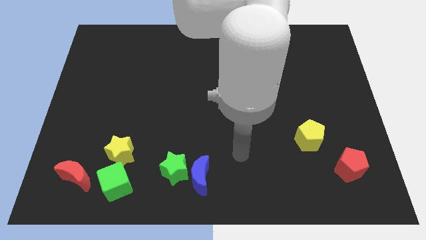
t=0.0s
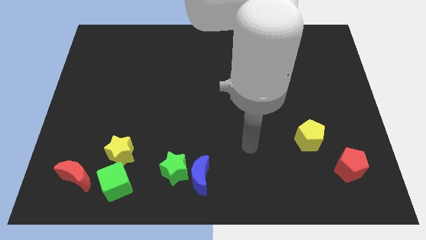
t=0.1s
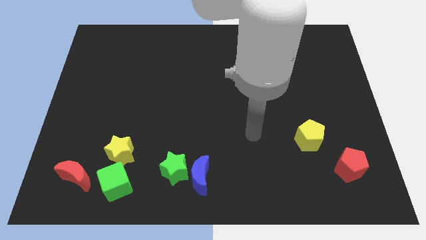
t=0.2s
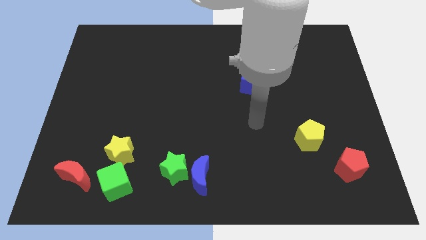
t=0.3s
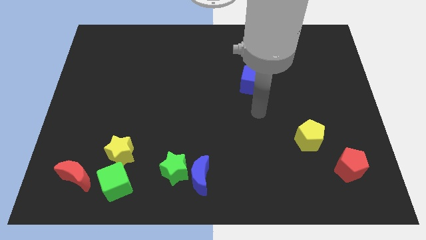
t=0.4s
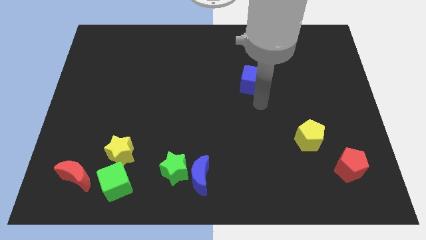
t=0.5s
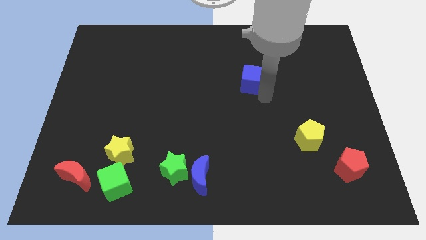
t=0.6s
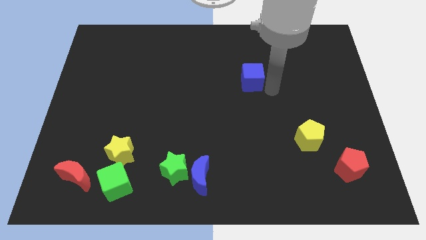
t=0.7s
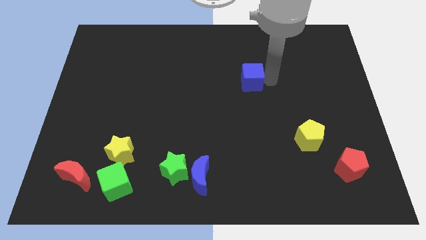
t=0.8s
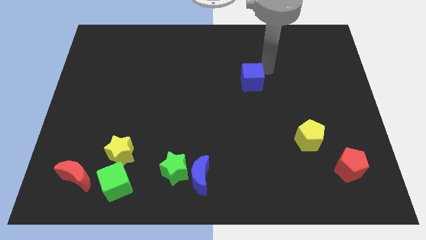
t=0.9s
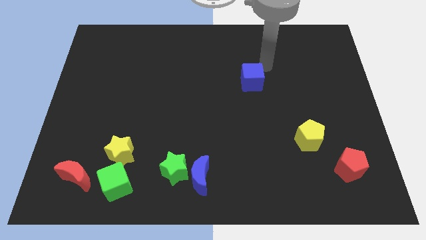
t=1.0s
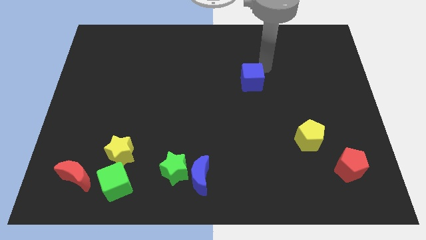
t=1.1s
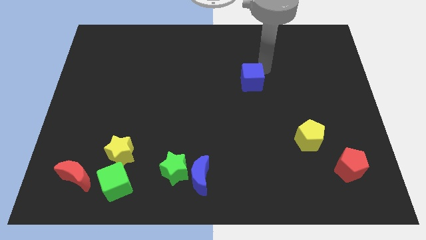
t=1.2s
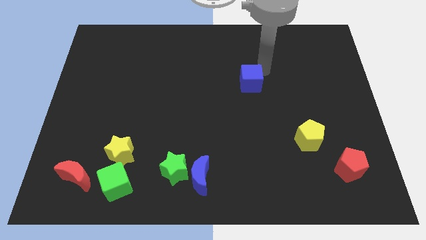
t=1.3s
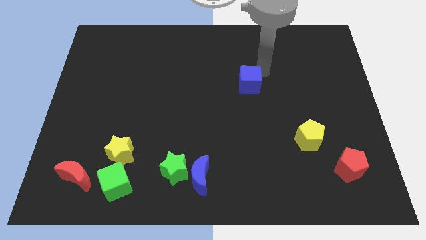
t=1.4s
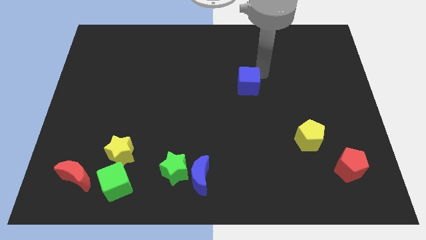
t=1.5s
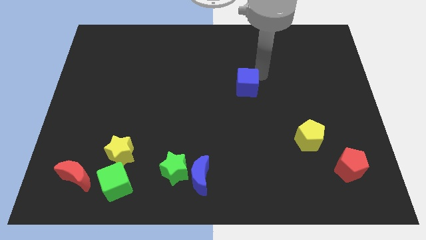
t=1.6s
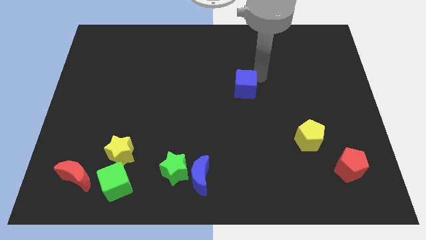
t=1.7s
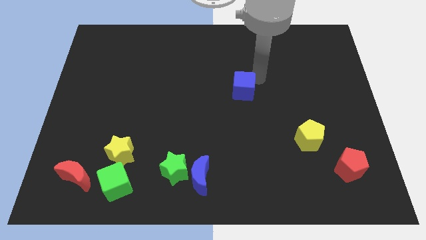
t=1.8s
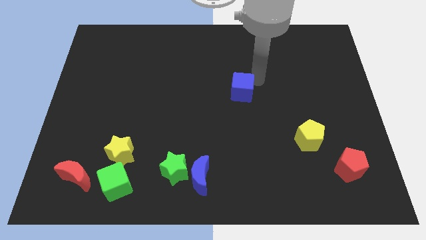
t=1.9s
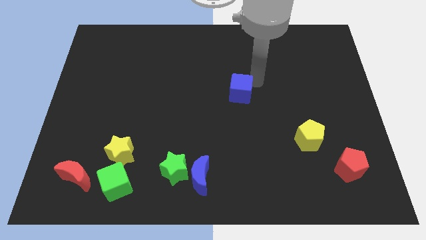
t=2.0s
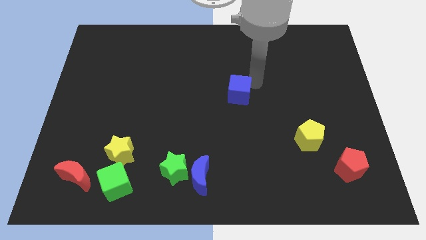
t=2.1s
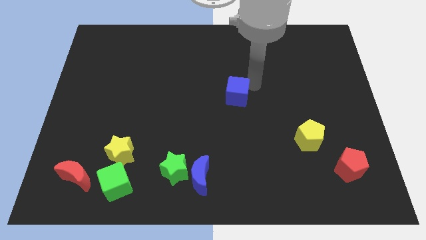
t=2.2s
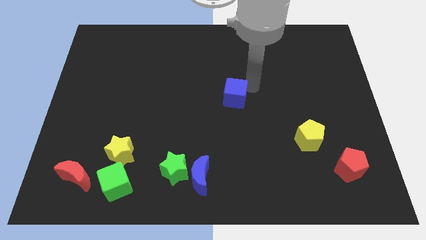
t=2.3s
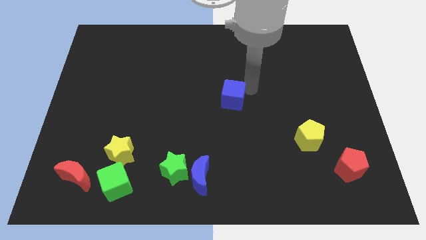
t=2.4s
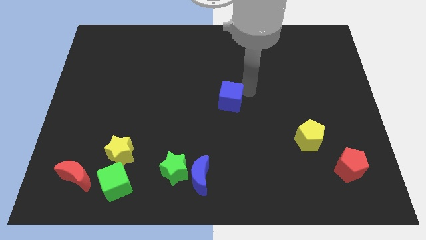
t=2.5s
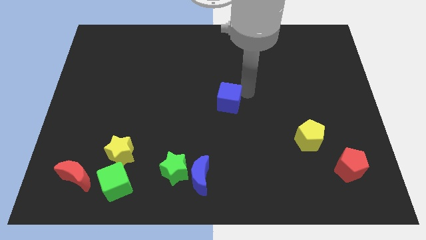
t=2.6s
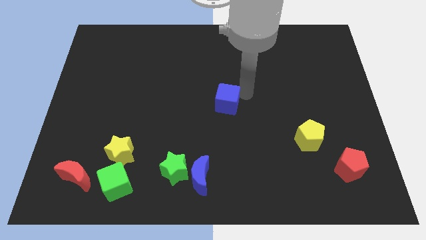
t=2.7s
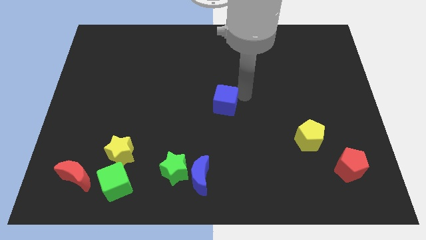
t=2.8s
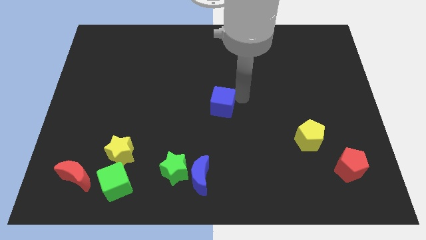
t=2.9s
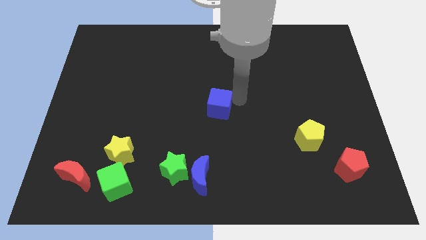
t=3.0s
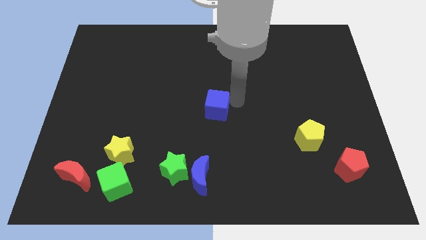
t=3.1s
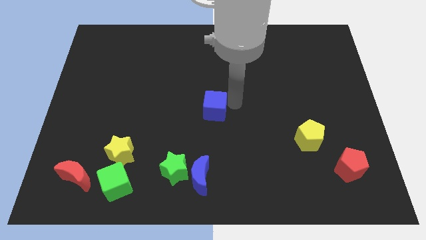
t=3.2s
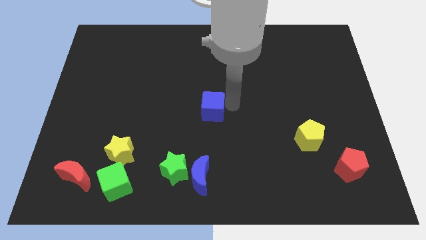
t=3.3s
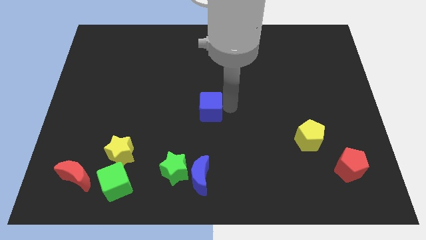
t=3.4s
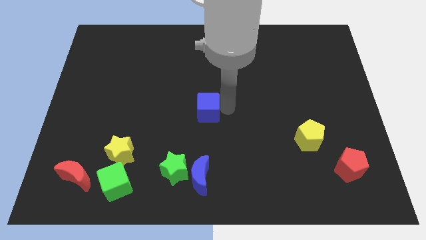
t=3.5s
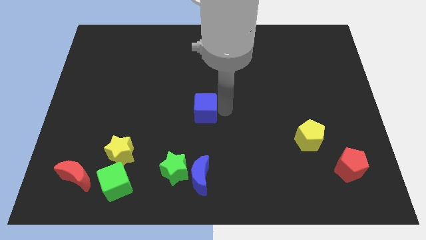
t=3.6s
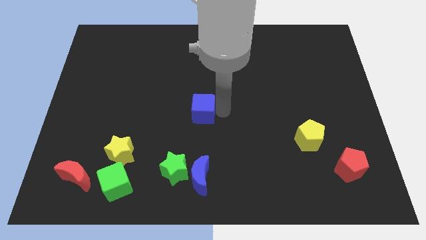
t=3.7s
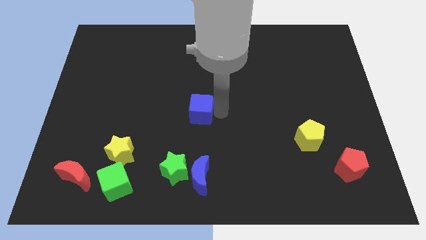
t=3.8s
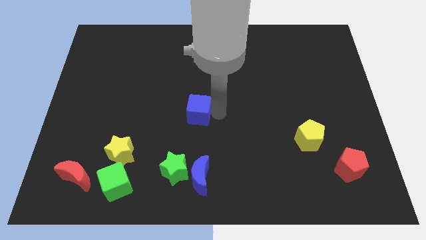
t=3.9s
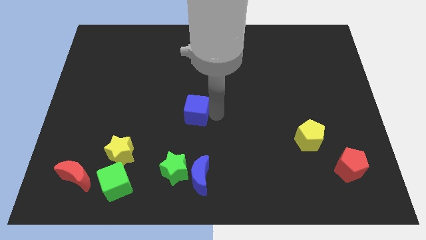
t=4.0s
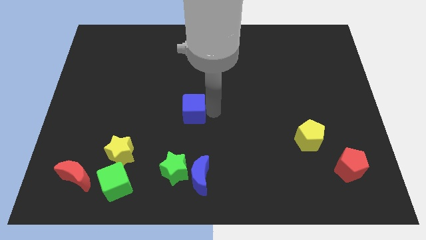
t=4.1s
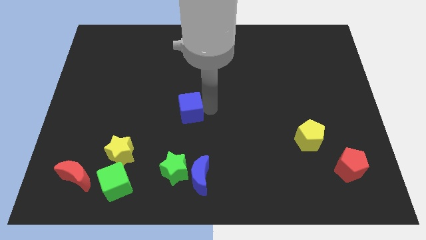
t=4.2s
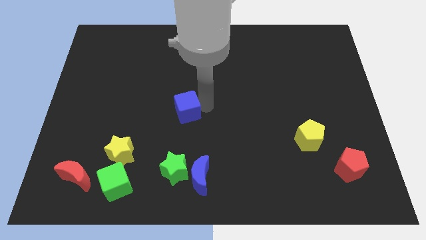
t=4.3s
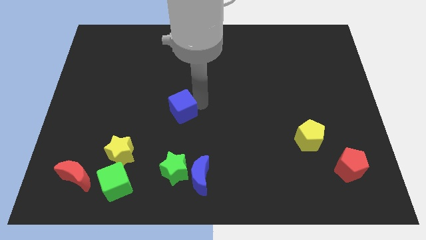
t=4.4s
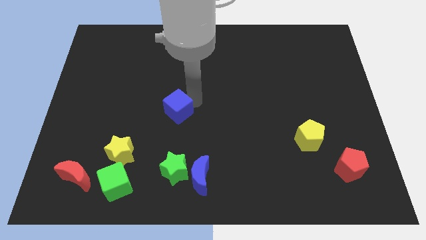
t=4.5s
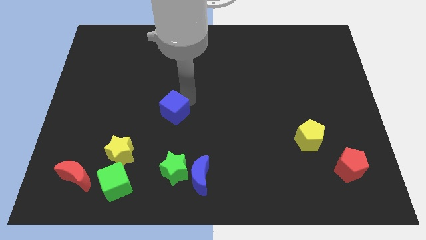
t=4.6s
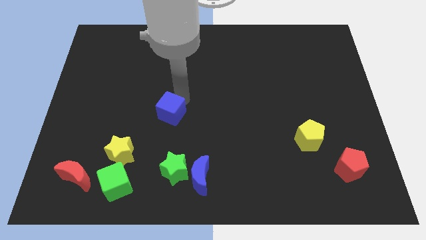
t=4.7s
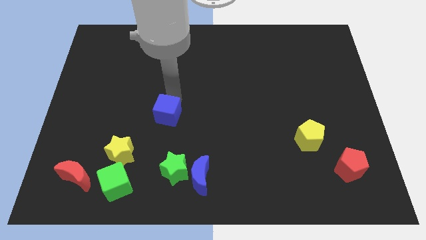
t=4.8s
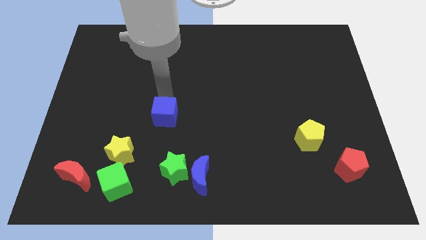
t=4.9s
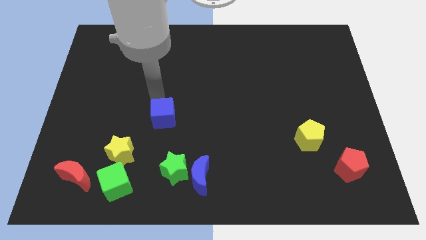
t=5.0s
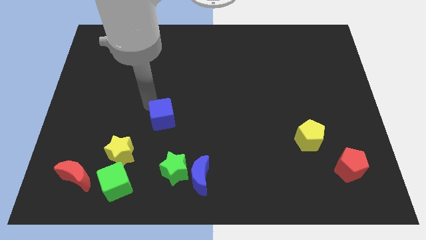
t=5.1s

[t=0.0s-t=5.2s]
slide the blue cube down and to the left diagonally

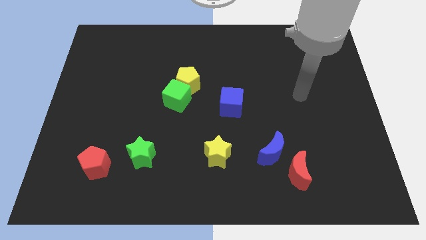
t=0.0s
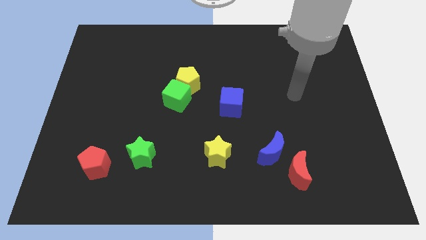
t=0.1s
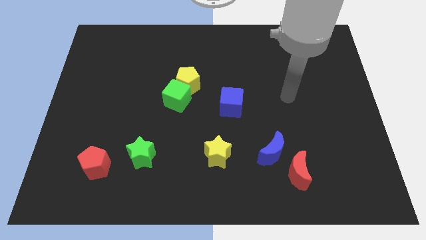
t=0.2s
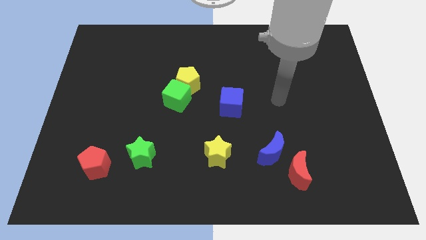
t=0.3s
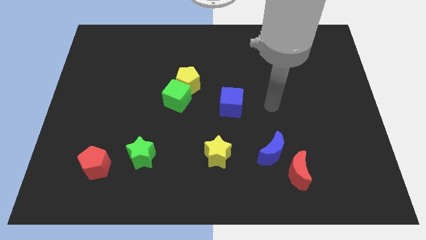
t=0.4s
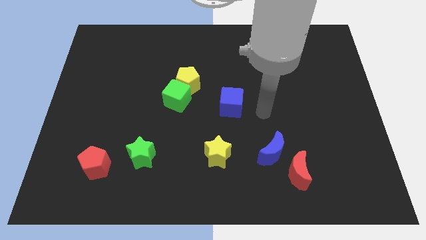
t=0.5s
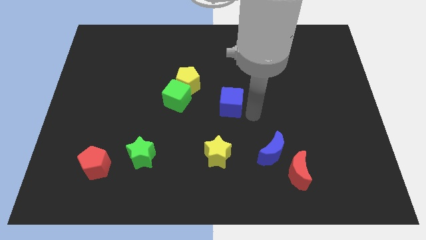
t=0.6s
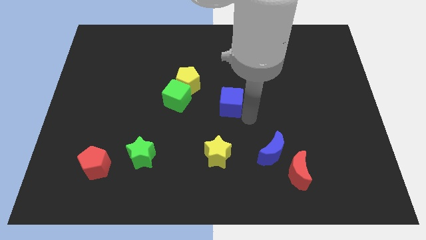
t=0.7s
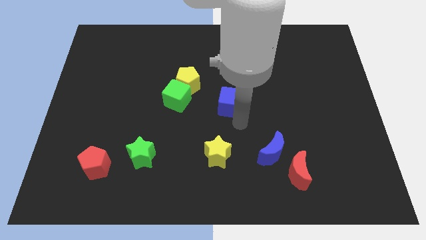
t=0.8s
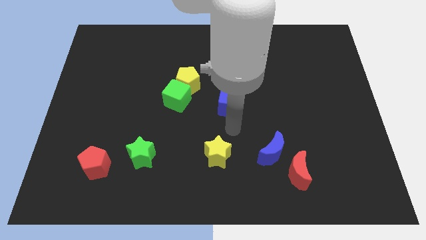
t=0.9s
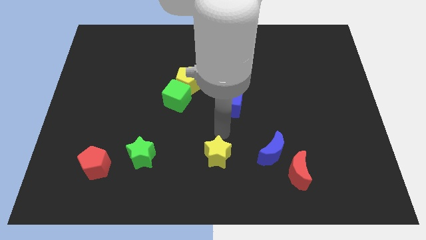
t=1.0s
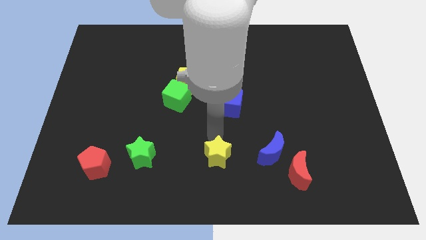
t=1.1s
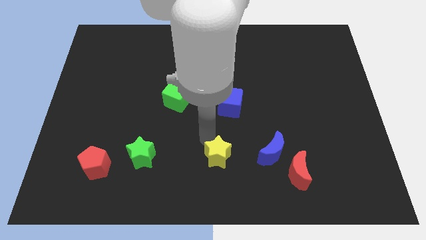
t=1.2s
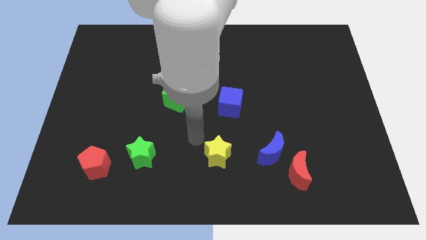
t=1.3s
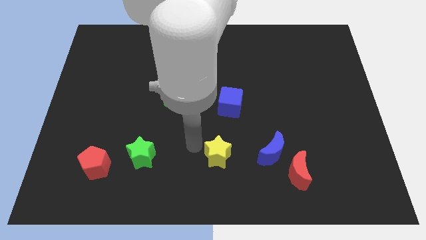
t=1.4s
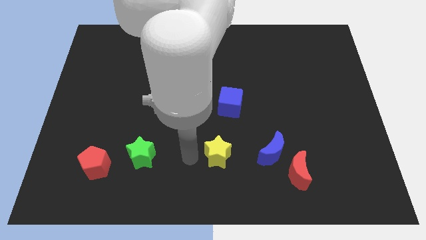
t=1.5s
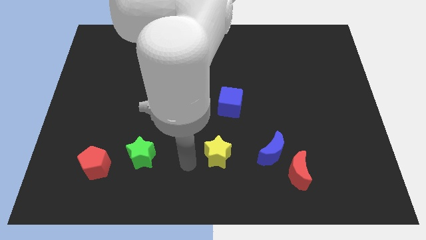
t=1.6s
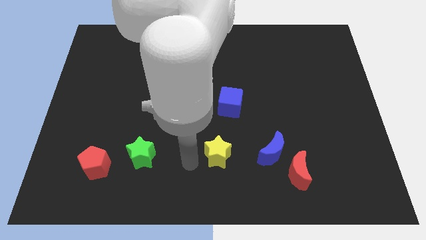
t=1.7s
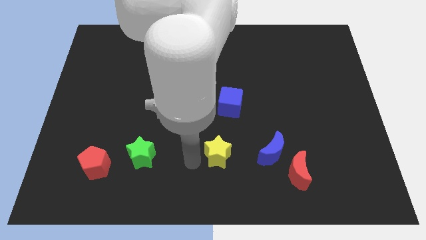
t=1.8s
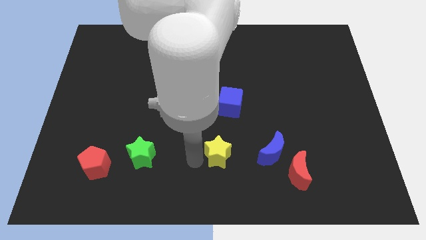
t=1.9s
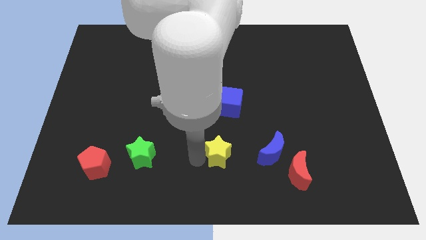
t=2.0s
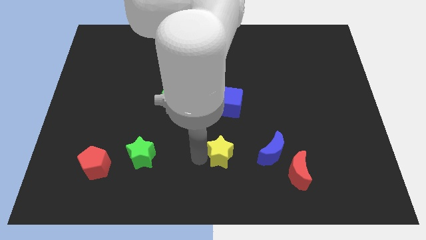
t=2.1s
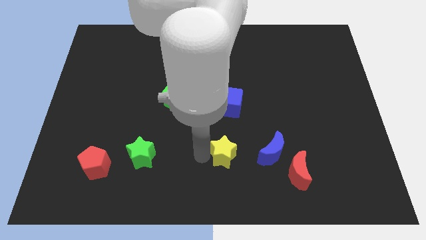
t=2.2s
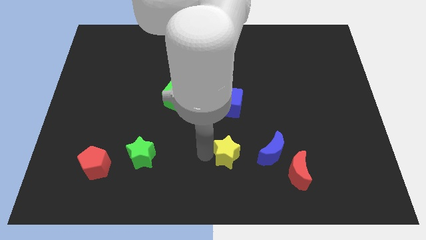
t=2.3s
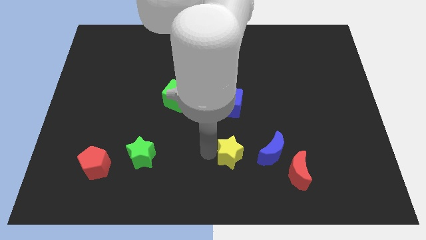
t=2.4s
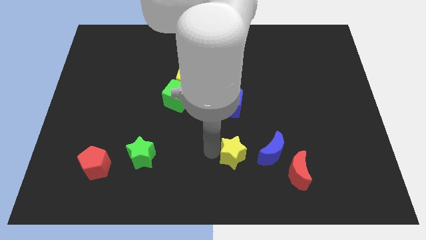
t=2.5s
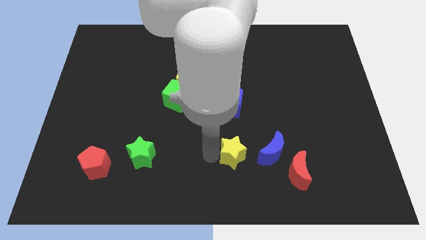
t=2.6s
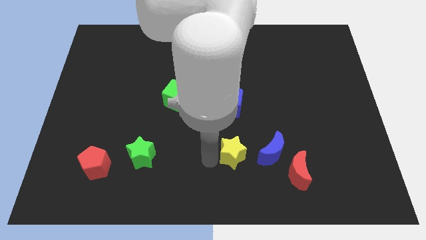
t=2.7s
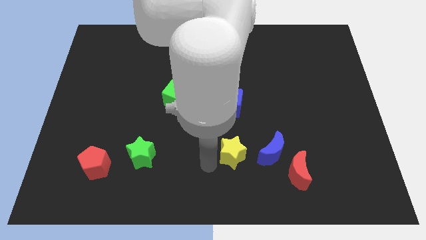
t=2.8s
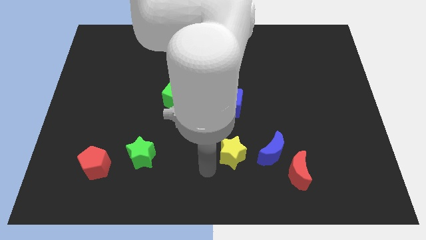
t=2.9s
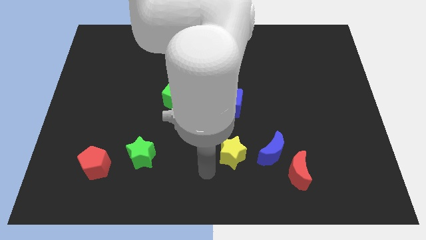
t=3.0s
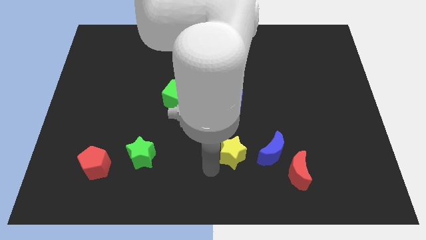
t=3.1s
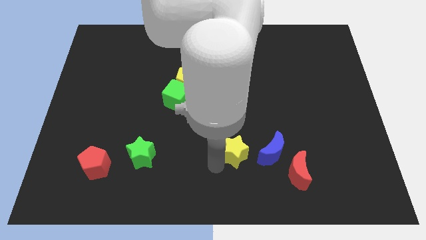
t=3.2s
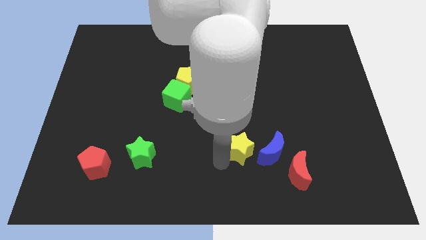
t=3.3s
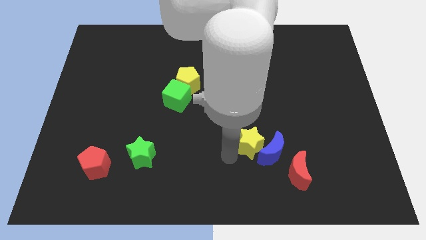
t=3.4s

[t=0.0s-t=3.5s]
move the yellow star a bit to the right

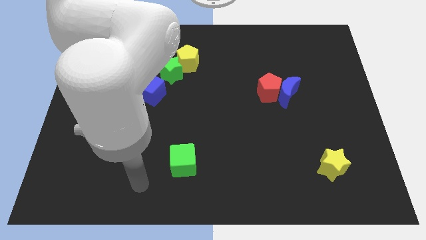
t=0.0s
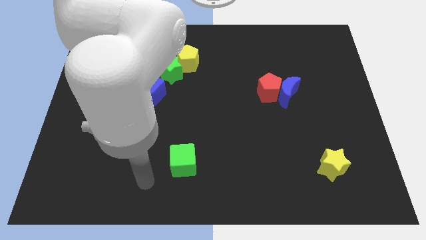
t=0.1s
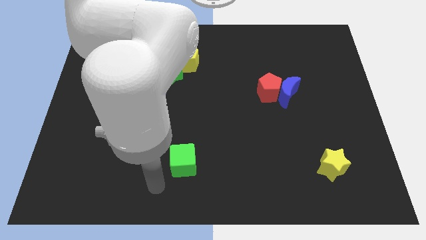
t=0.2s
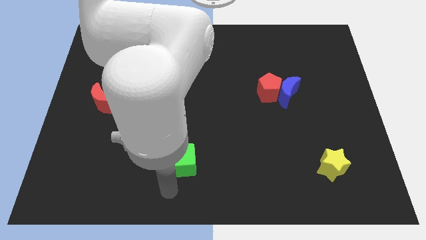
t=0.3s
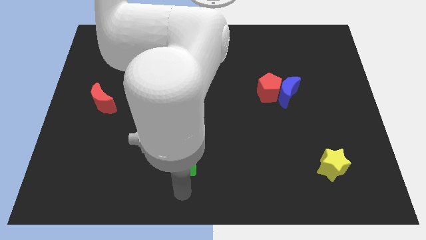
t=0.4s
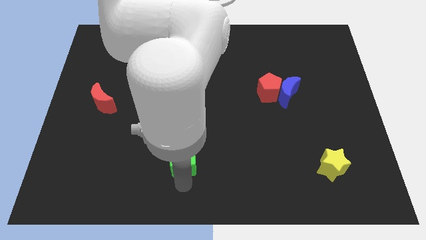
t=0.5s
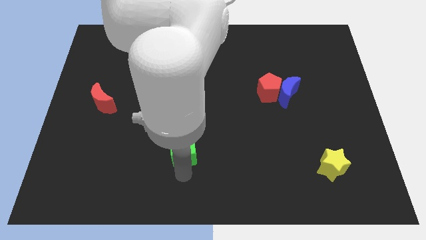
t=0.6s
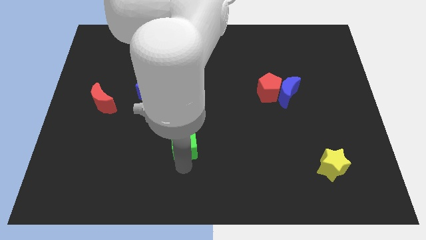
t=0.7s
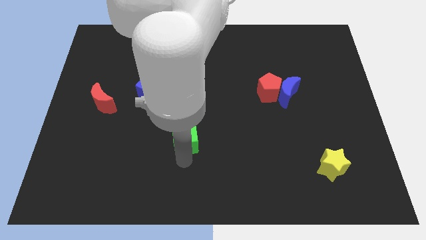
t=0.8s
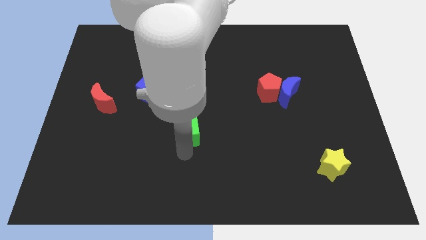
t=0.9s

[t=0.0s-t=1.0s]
slightly slide the green cube upwards
